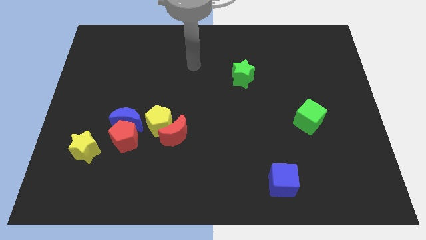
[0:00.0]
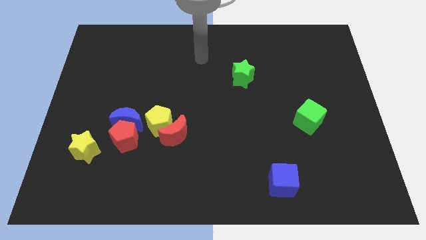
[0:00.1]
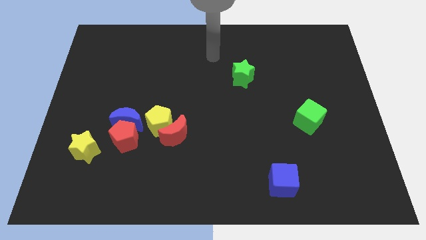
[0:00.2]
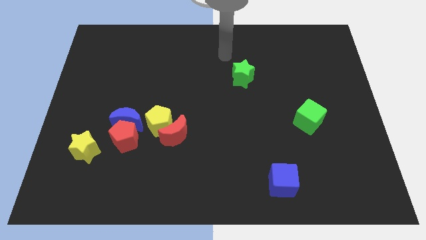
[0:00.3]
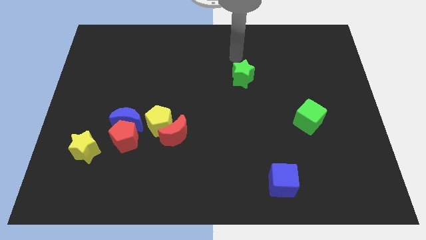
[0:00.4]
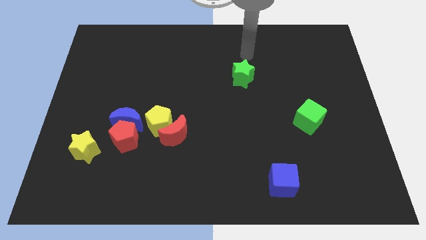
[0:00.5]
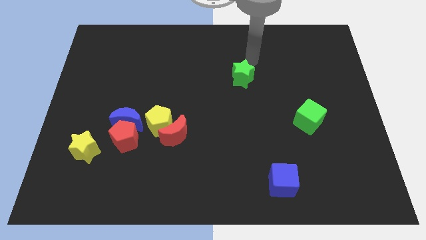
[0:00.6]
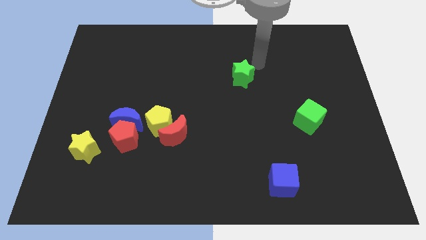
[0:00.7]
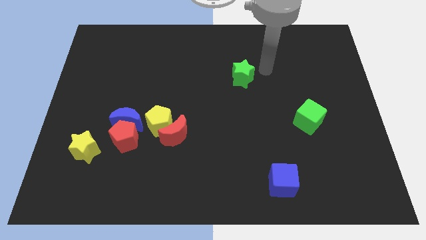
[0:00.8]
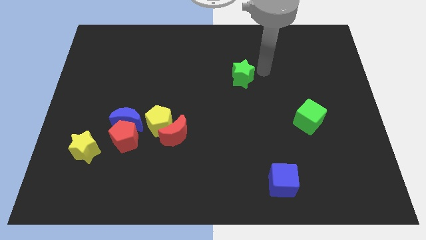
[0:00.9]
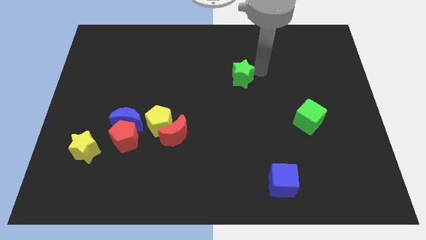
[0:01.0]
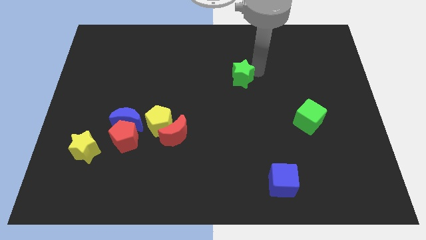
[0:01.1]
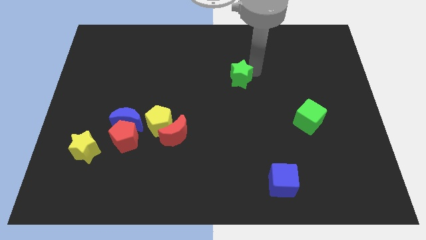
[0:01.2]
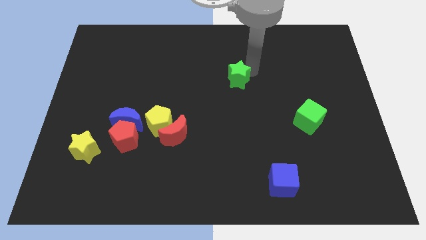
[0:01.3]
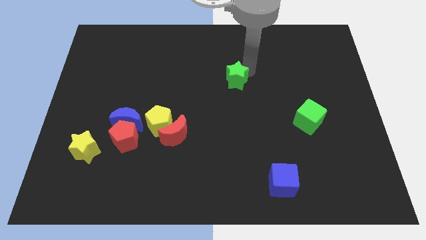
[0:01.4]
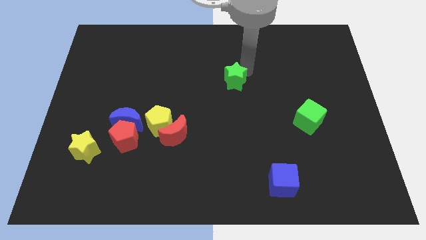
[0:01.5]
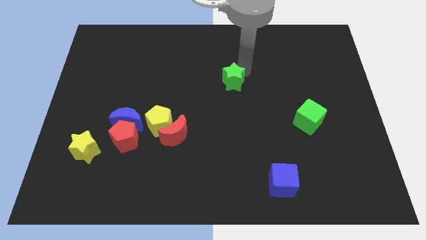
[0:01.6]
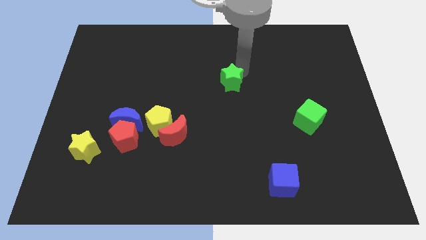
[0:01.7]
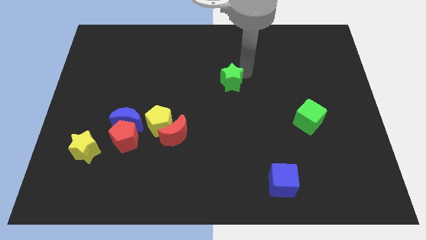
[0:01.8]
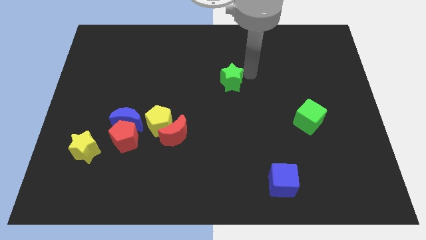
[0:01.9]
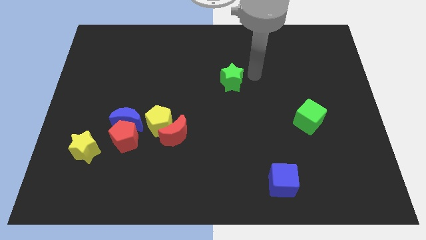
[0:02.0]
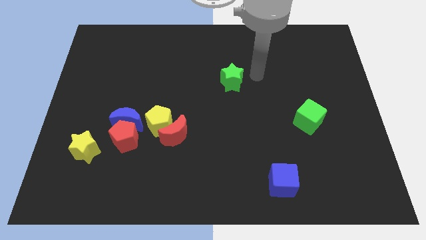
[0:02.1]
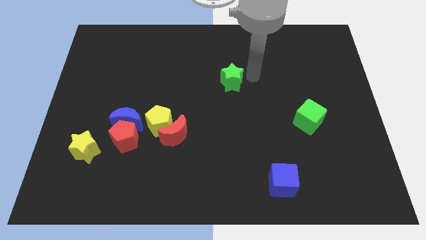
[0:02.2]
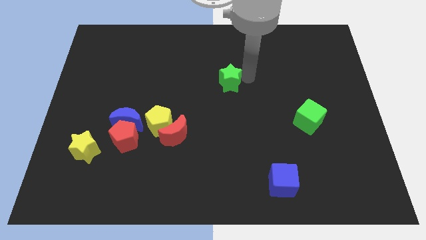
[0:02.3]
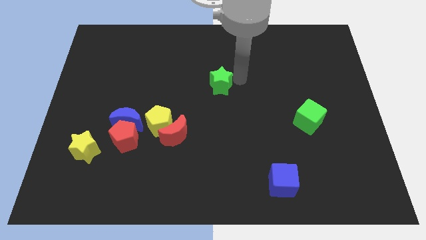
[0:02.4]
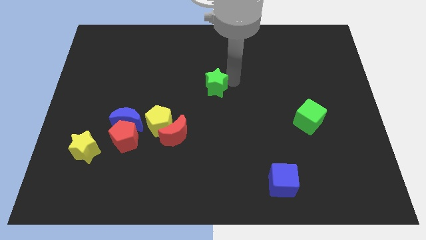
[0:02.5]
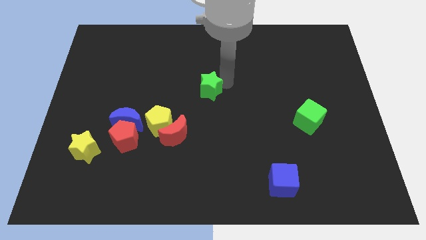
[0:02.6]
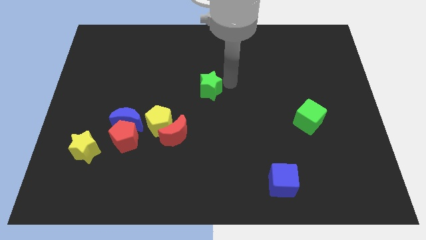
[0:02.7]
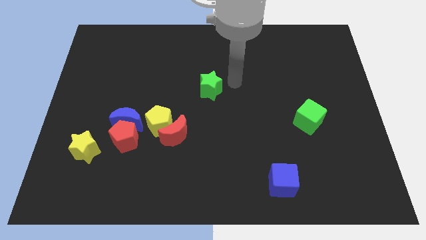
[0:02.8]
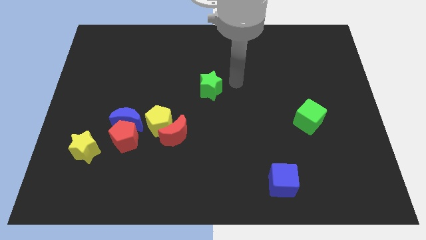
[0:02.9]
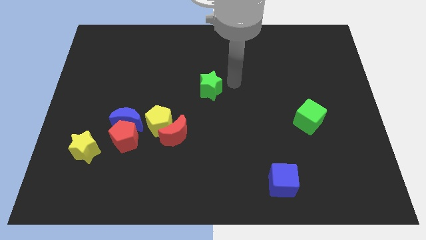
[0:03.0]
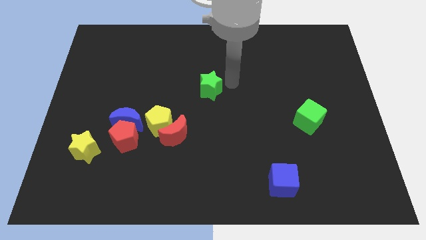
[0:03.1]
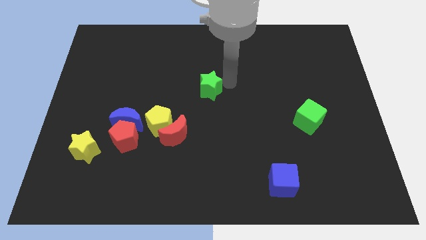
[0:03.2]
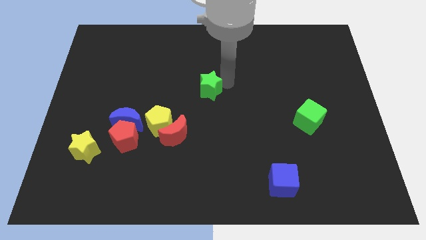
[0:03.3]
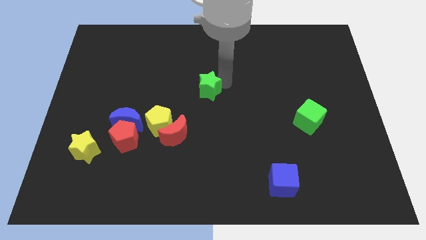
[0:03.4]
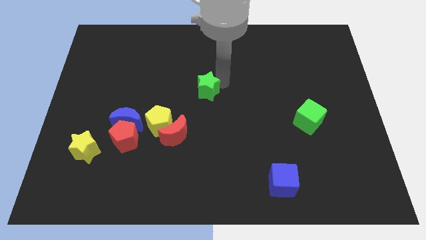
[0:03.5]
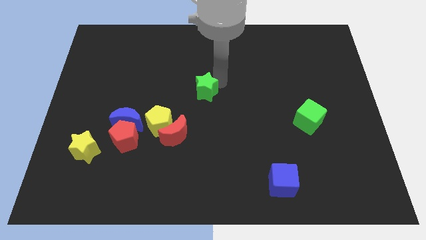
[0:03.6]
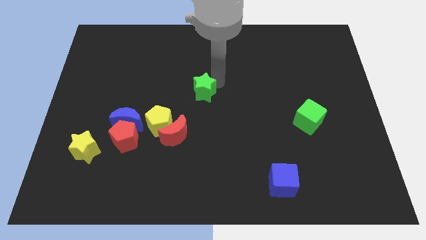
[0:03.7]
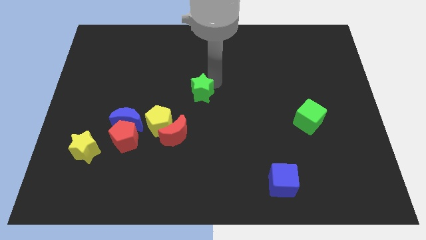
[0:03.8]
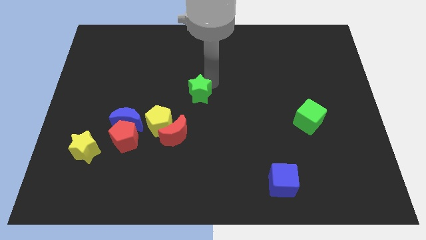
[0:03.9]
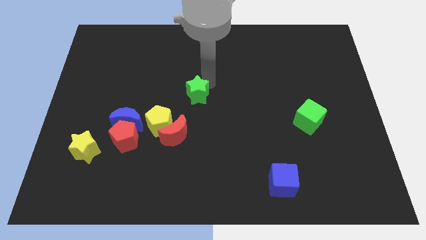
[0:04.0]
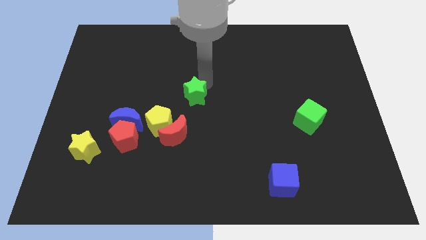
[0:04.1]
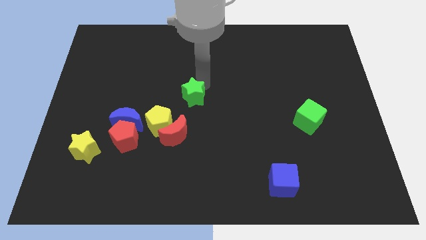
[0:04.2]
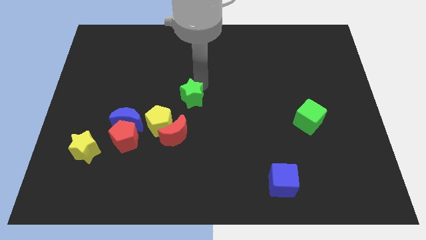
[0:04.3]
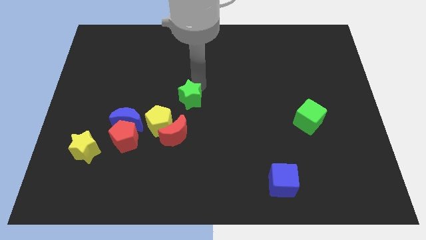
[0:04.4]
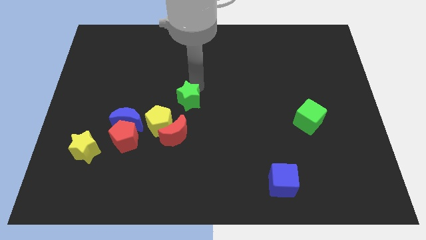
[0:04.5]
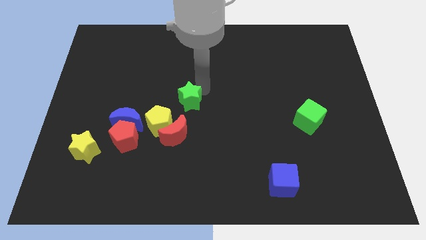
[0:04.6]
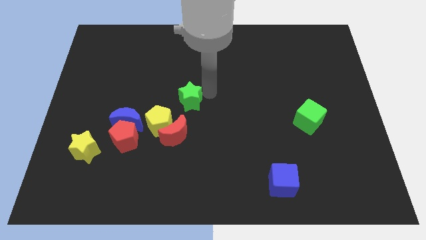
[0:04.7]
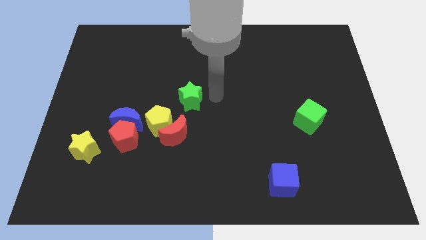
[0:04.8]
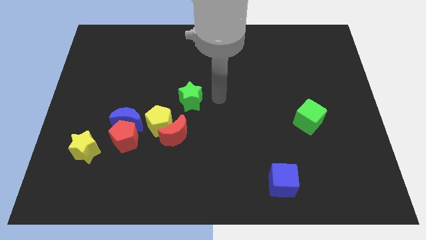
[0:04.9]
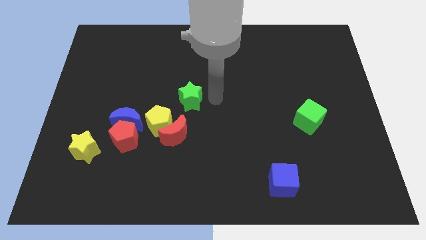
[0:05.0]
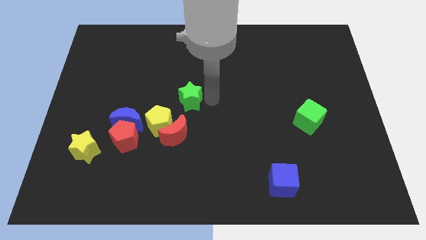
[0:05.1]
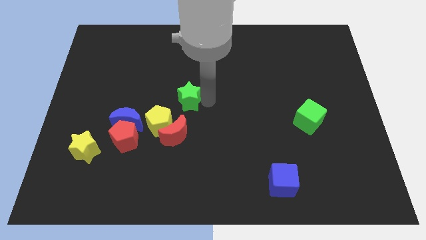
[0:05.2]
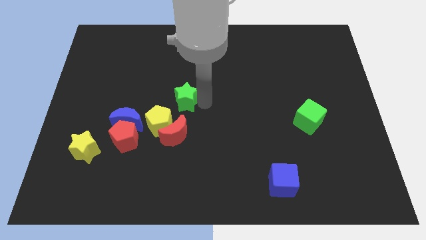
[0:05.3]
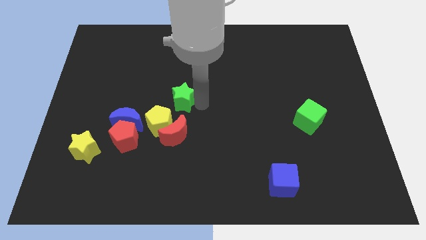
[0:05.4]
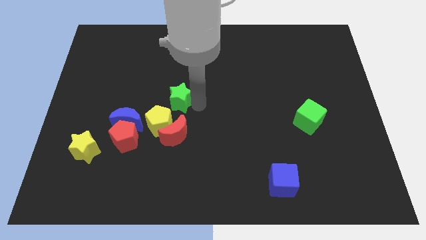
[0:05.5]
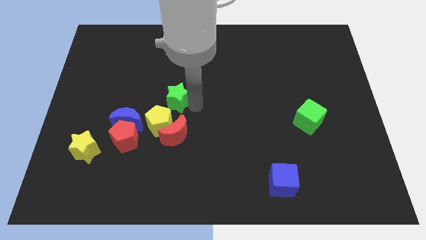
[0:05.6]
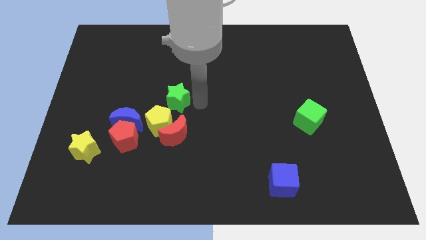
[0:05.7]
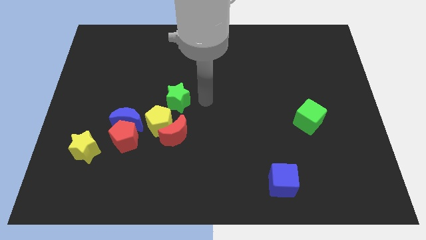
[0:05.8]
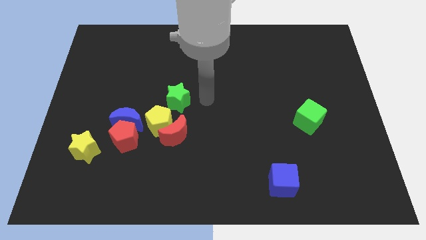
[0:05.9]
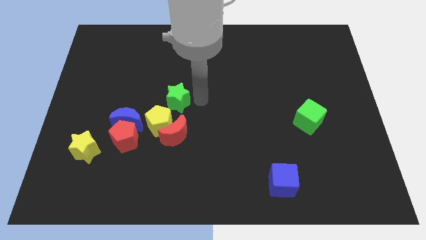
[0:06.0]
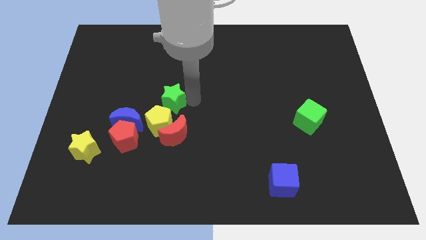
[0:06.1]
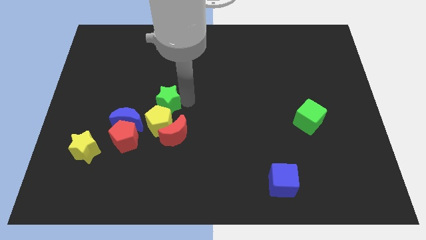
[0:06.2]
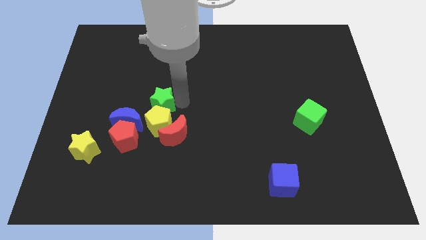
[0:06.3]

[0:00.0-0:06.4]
slide the green star to the top left of the yellow pentagon
